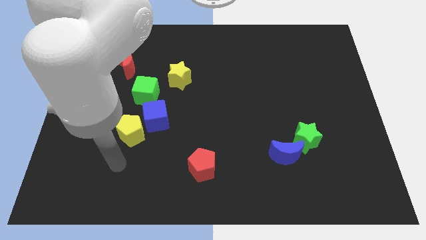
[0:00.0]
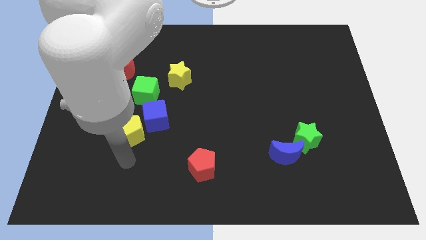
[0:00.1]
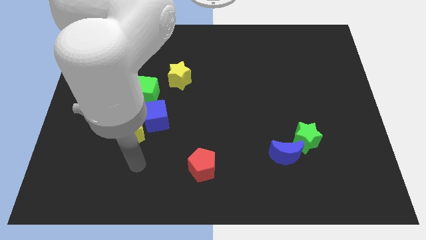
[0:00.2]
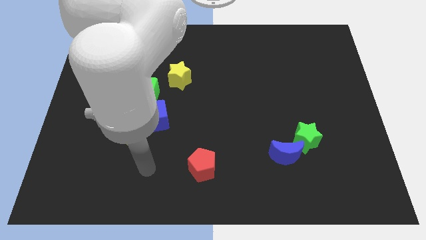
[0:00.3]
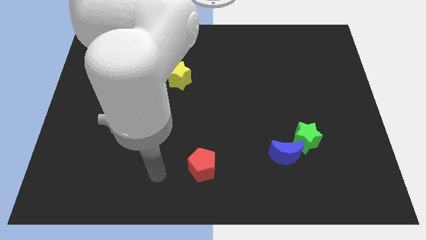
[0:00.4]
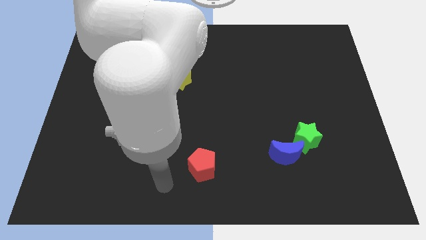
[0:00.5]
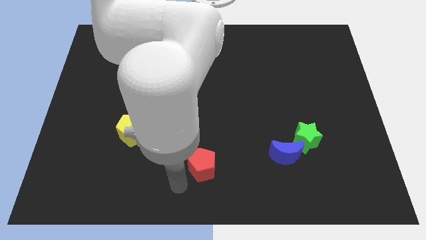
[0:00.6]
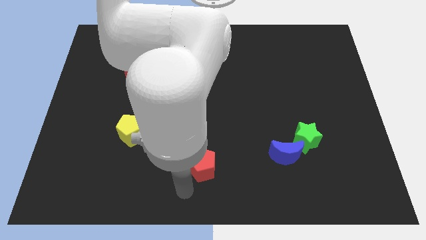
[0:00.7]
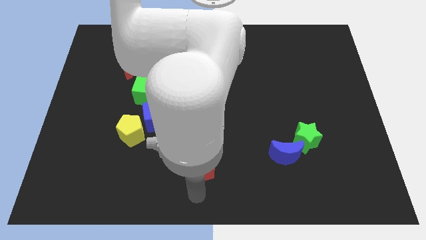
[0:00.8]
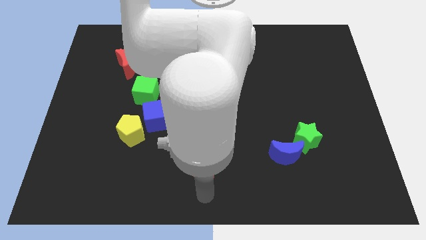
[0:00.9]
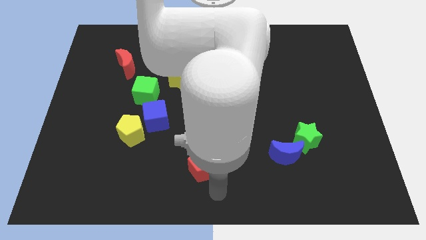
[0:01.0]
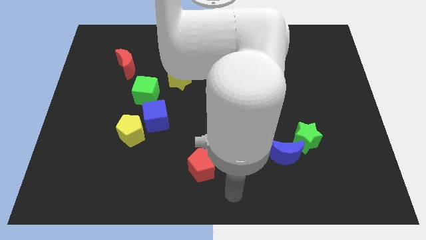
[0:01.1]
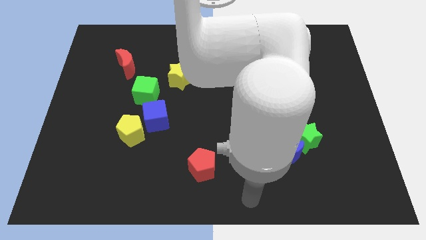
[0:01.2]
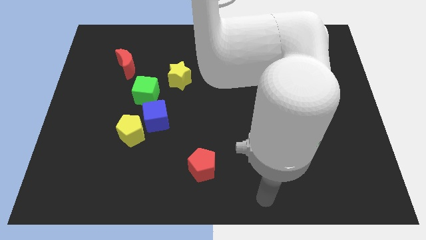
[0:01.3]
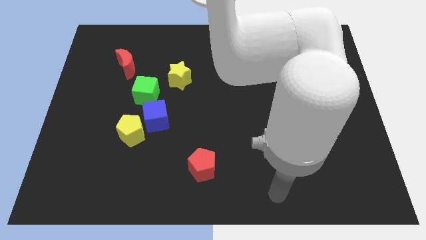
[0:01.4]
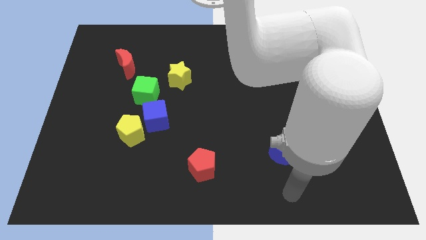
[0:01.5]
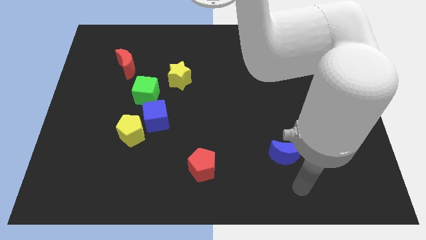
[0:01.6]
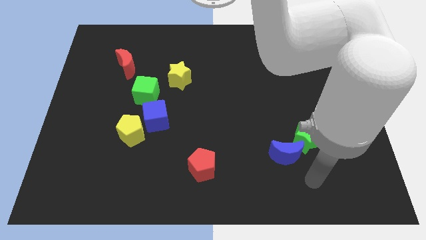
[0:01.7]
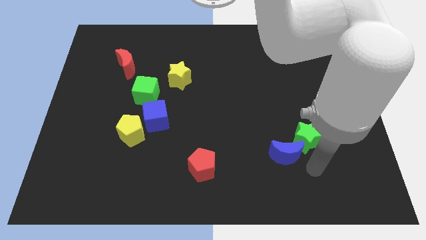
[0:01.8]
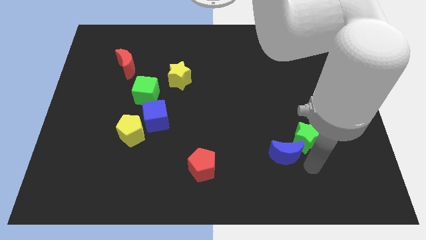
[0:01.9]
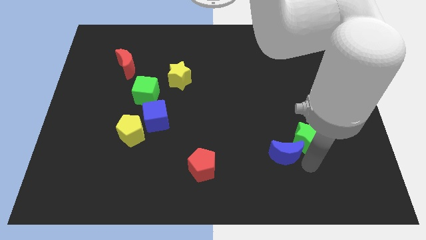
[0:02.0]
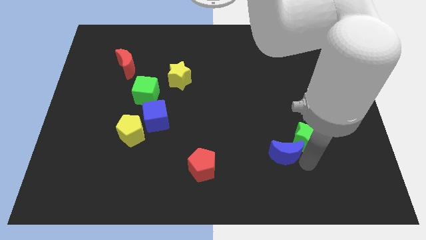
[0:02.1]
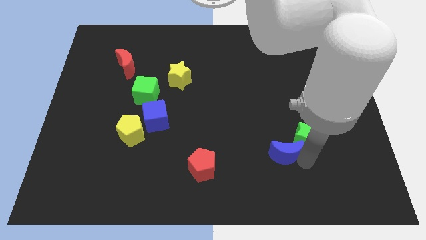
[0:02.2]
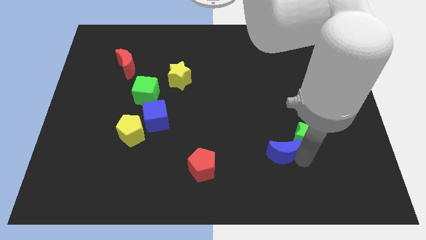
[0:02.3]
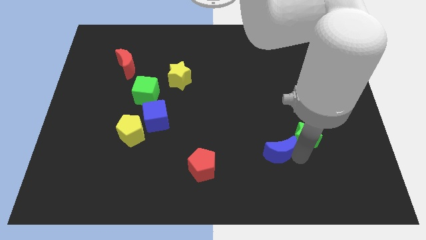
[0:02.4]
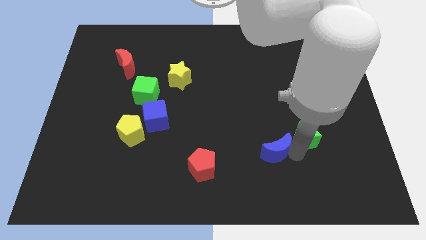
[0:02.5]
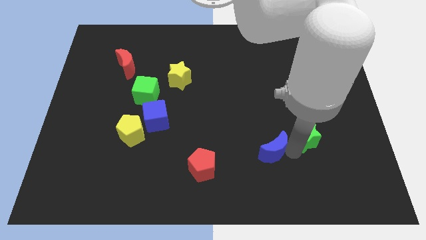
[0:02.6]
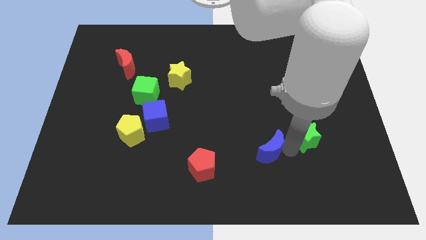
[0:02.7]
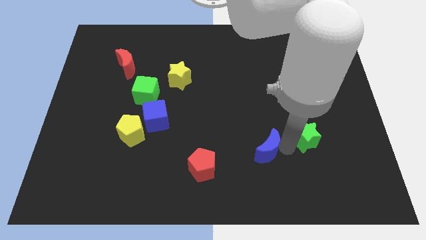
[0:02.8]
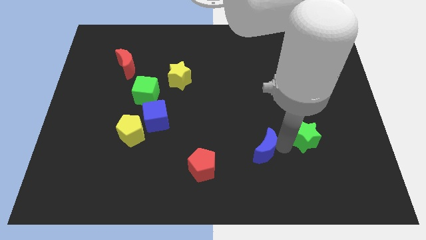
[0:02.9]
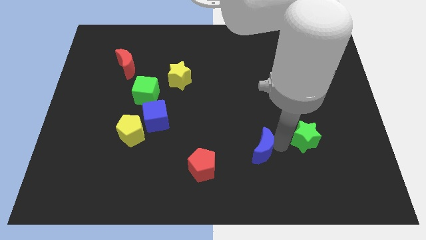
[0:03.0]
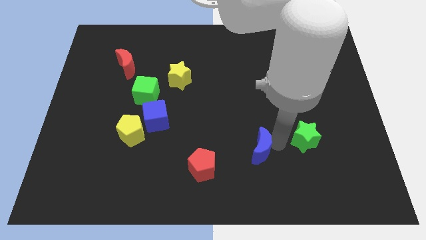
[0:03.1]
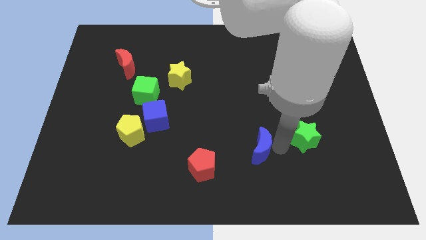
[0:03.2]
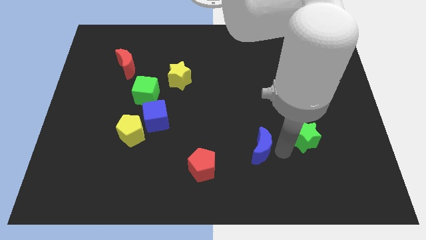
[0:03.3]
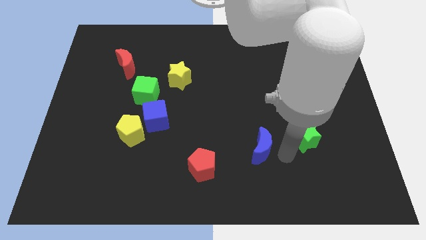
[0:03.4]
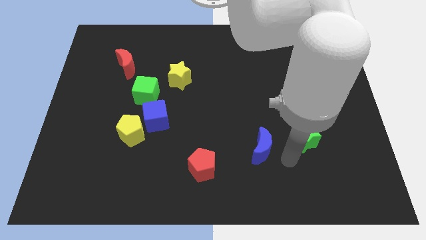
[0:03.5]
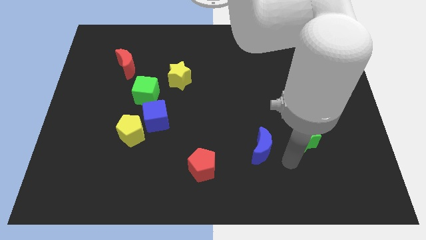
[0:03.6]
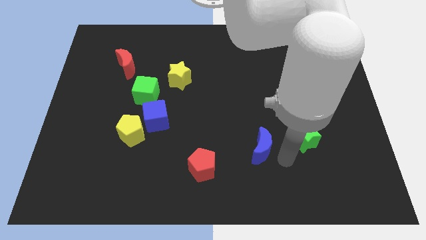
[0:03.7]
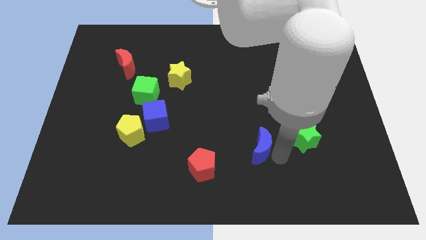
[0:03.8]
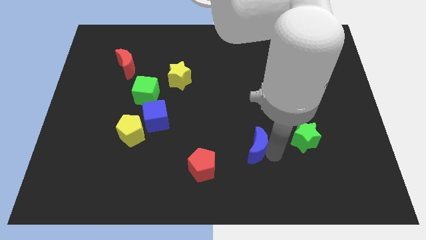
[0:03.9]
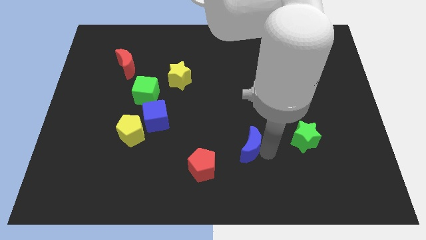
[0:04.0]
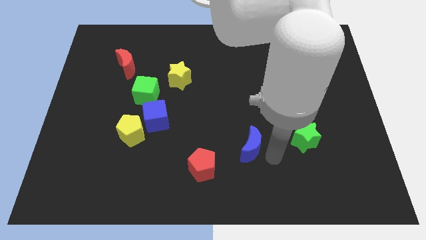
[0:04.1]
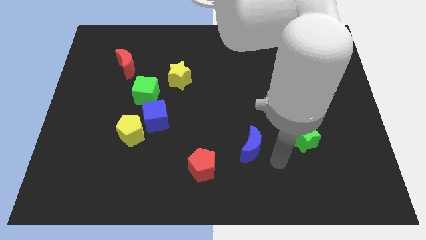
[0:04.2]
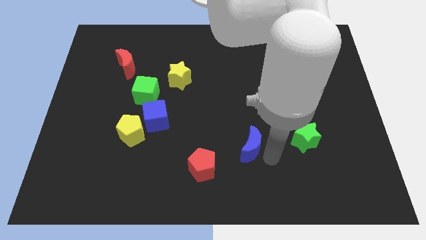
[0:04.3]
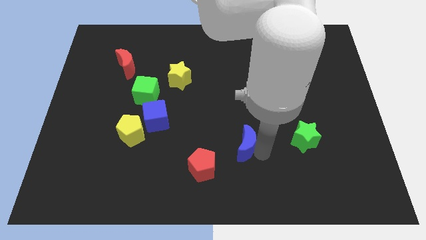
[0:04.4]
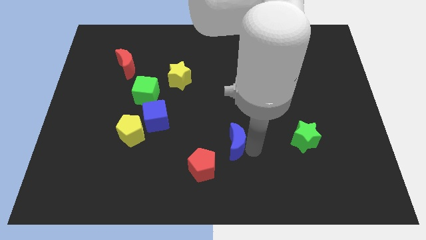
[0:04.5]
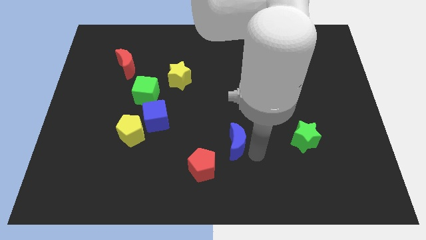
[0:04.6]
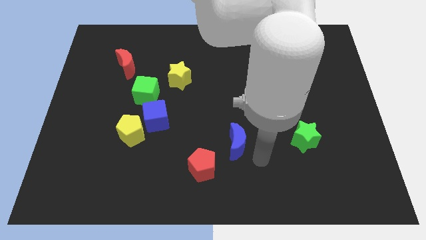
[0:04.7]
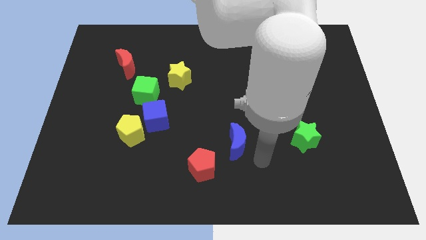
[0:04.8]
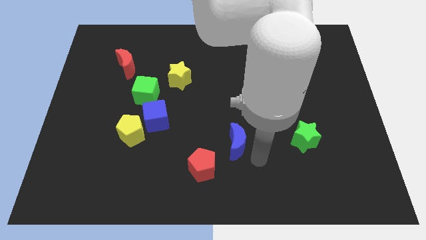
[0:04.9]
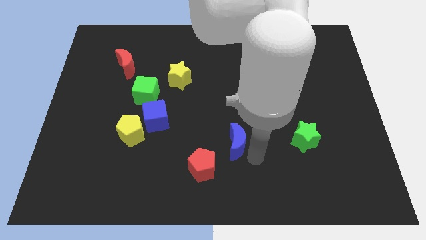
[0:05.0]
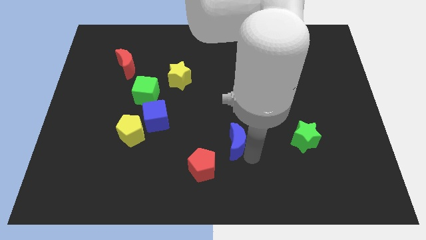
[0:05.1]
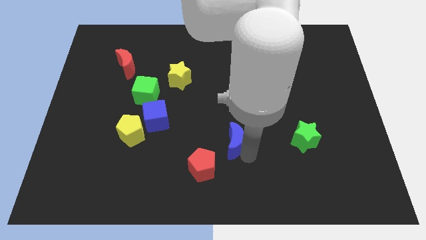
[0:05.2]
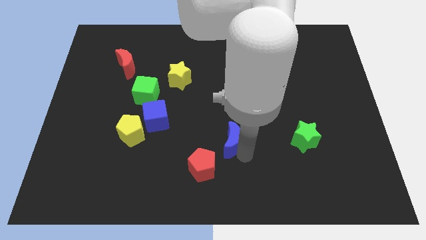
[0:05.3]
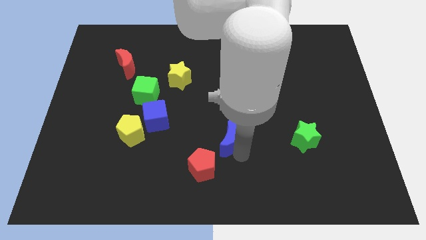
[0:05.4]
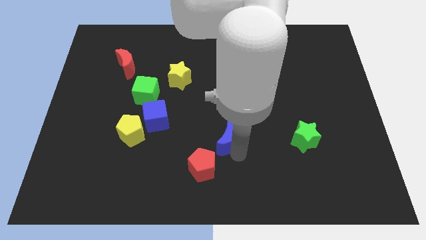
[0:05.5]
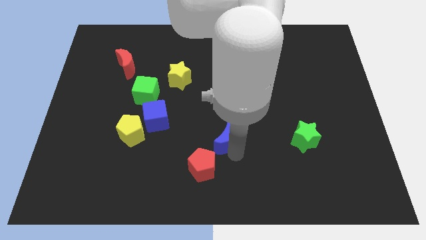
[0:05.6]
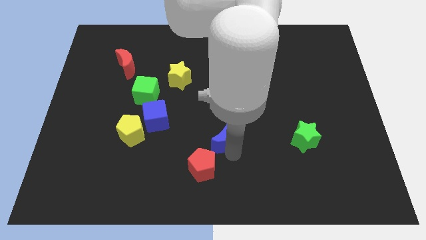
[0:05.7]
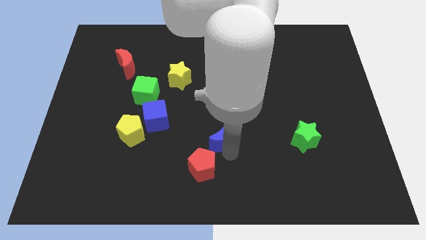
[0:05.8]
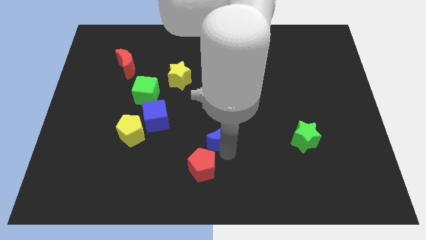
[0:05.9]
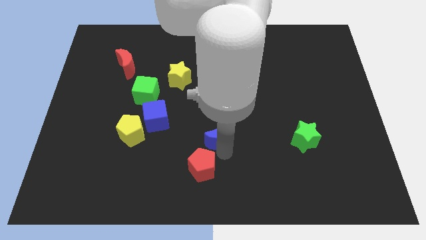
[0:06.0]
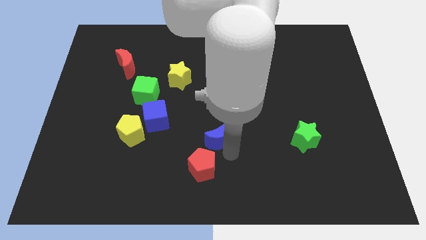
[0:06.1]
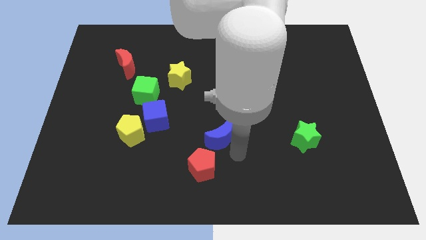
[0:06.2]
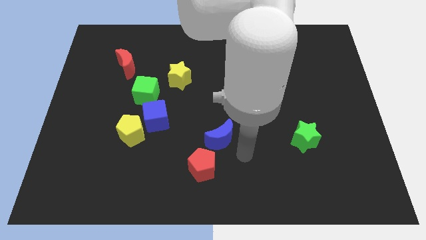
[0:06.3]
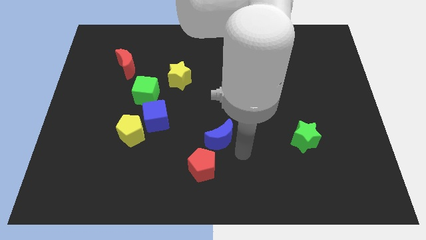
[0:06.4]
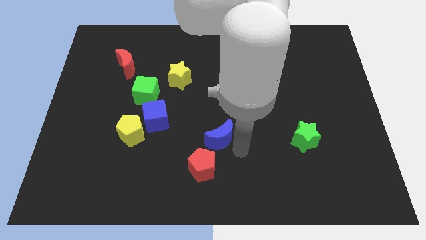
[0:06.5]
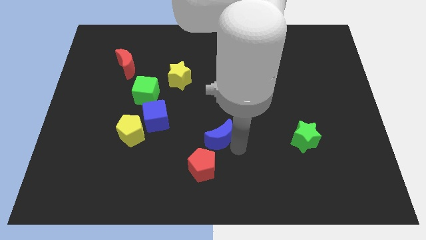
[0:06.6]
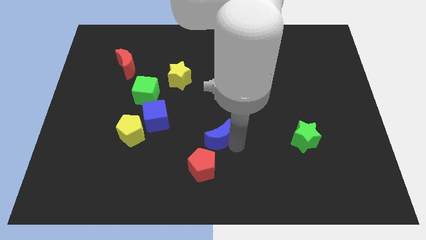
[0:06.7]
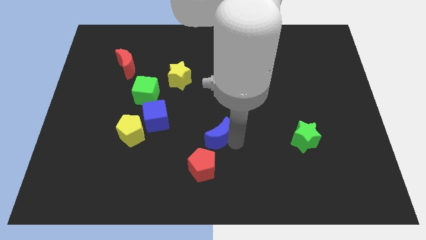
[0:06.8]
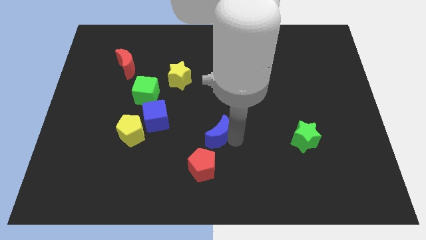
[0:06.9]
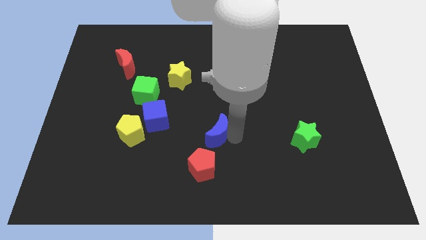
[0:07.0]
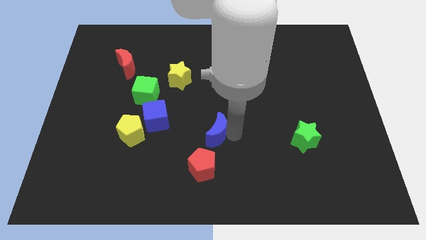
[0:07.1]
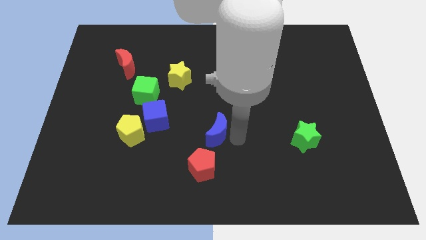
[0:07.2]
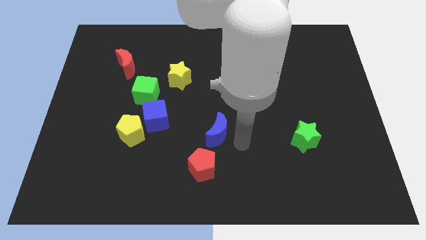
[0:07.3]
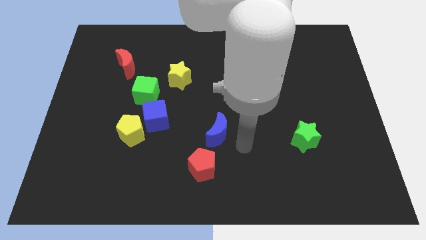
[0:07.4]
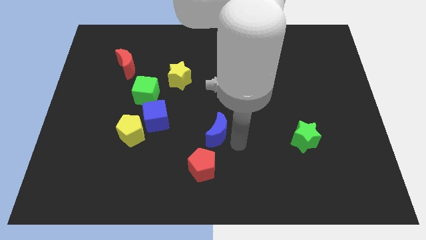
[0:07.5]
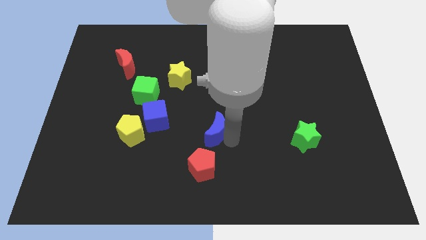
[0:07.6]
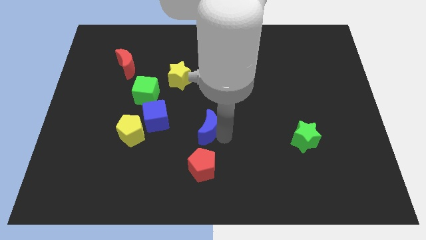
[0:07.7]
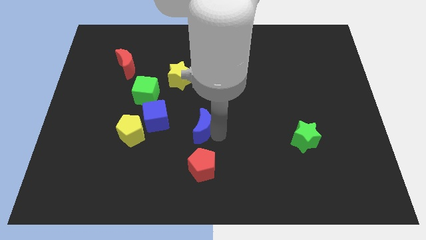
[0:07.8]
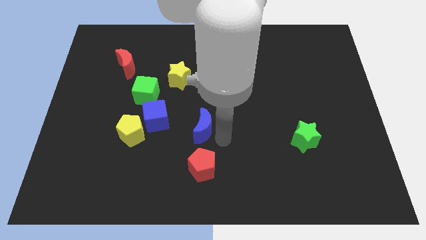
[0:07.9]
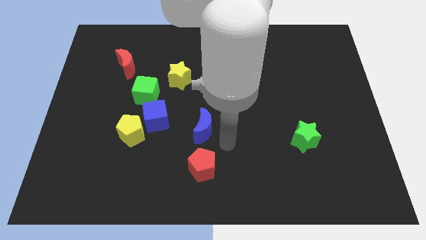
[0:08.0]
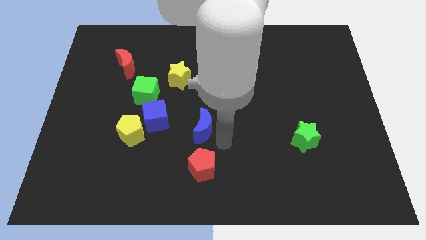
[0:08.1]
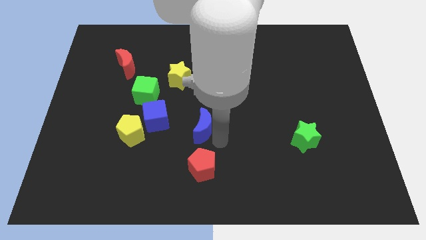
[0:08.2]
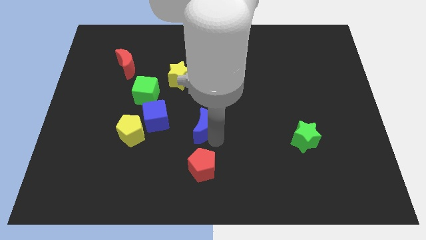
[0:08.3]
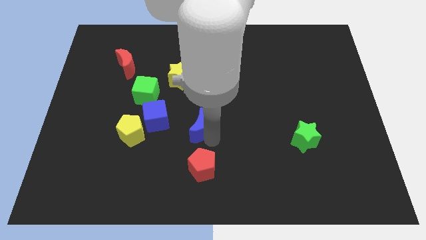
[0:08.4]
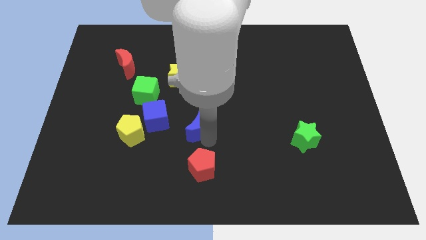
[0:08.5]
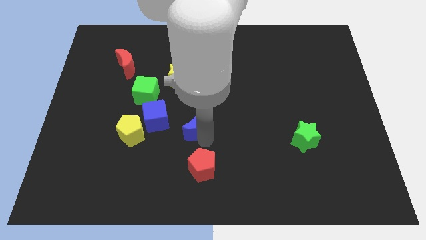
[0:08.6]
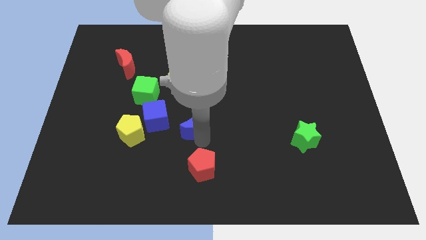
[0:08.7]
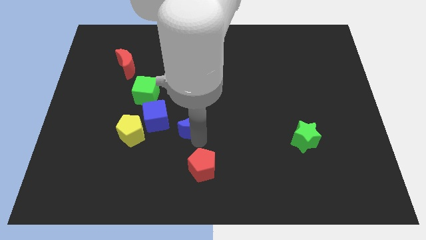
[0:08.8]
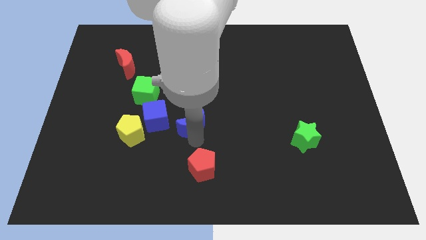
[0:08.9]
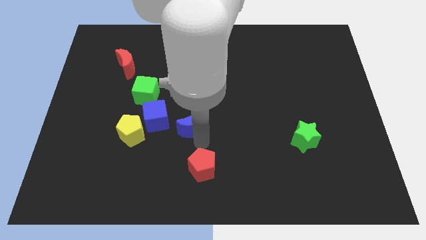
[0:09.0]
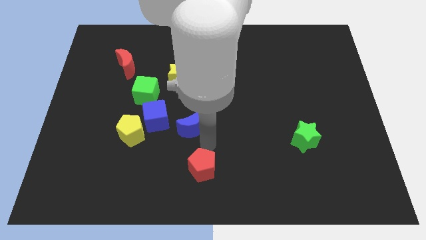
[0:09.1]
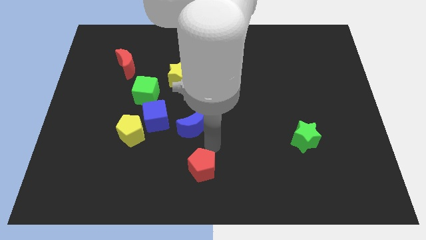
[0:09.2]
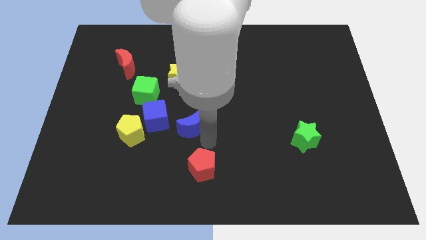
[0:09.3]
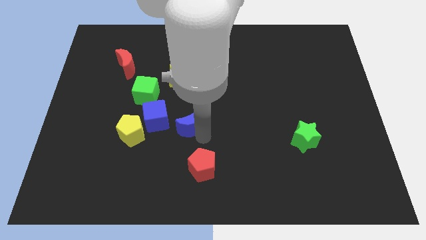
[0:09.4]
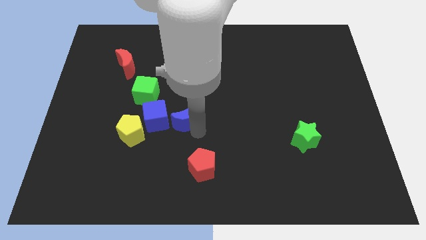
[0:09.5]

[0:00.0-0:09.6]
slide the blue moon to the bottom side of the yellow star
